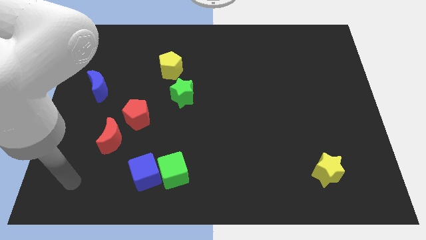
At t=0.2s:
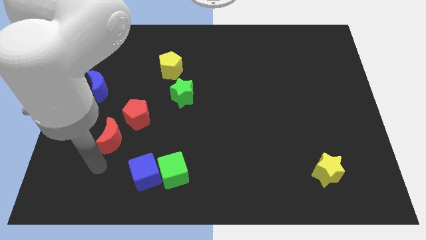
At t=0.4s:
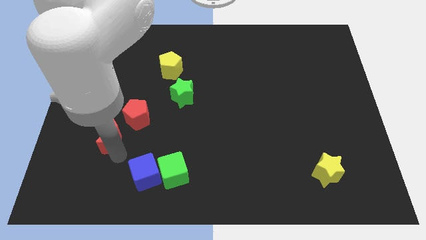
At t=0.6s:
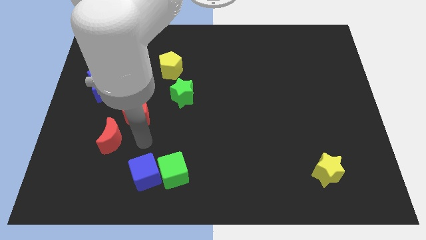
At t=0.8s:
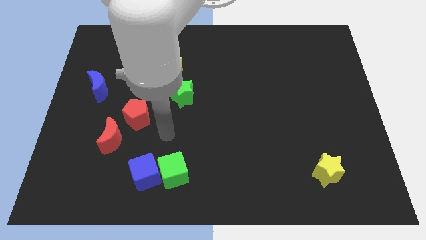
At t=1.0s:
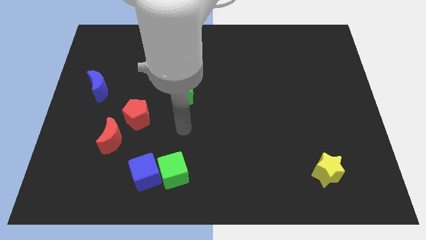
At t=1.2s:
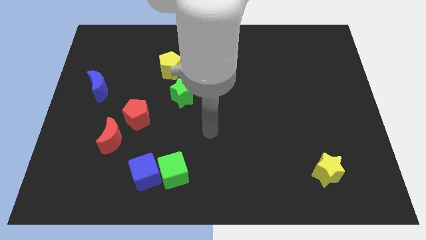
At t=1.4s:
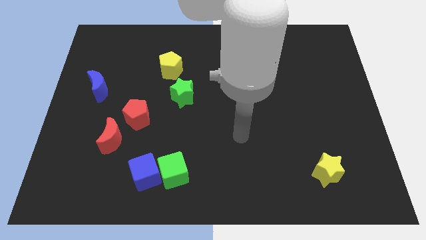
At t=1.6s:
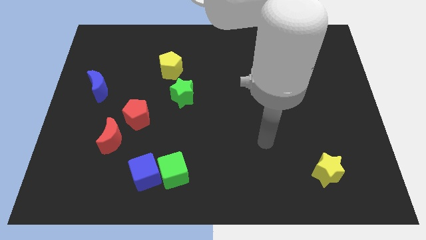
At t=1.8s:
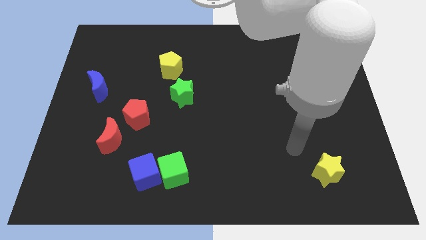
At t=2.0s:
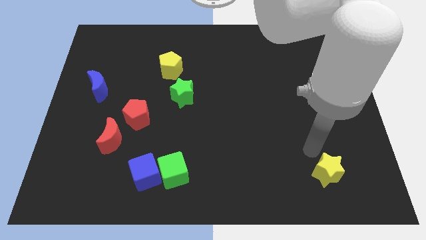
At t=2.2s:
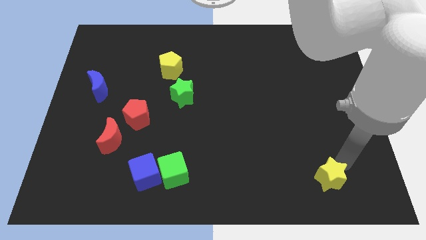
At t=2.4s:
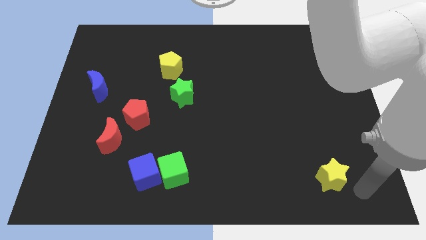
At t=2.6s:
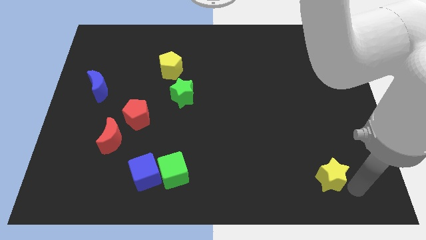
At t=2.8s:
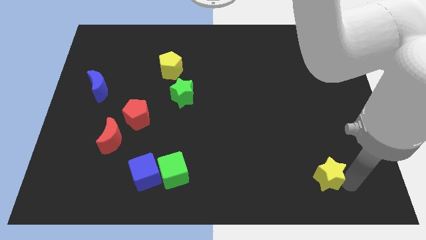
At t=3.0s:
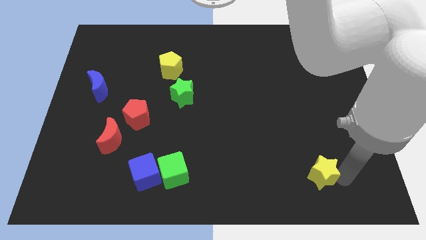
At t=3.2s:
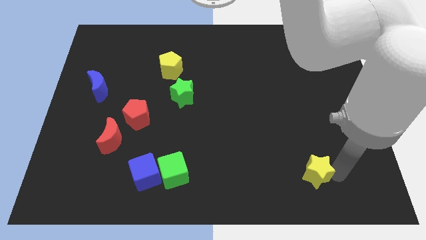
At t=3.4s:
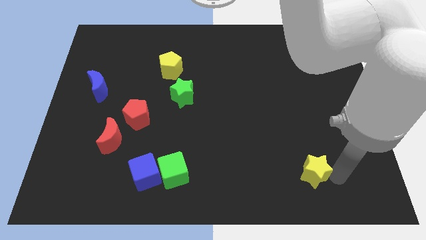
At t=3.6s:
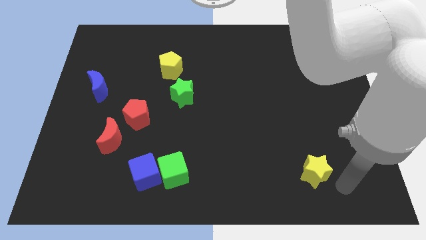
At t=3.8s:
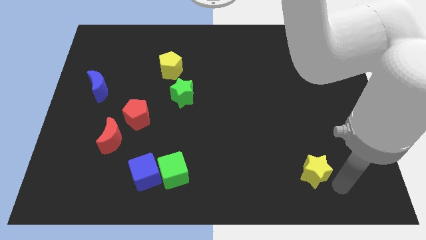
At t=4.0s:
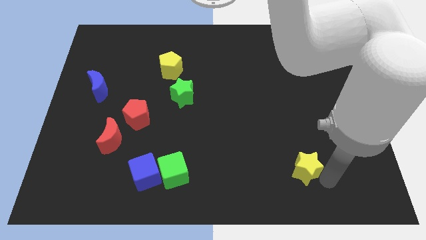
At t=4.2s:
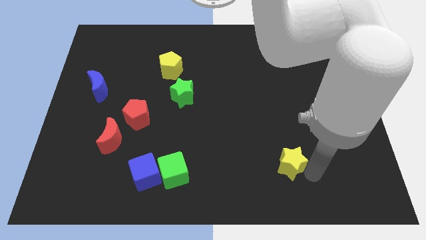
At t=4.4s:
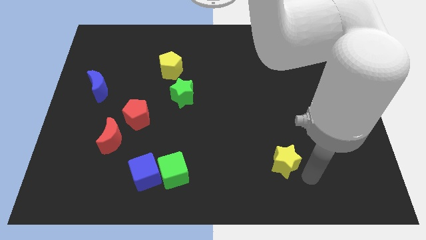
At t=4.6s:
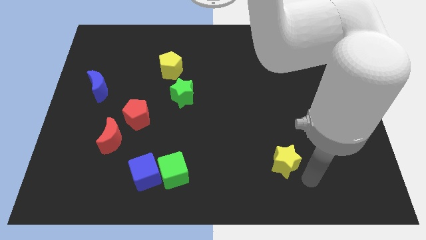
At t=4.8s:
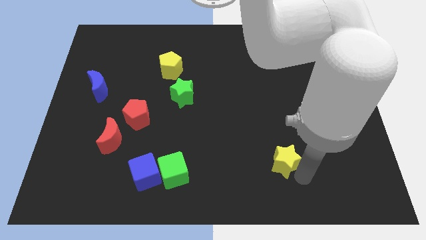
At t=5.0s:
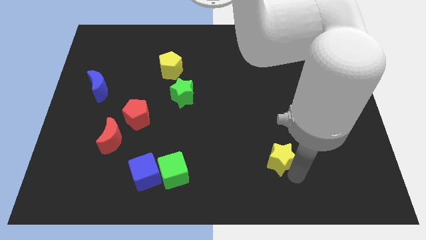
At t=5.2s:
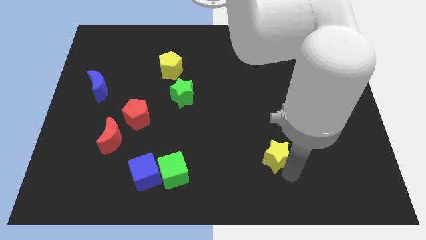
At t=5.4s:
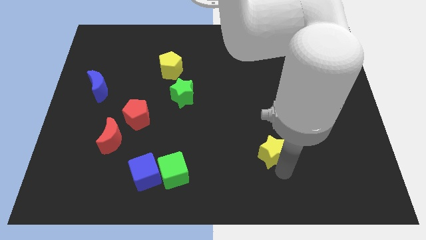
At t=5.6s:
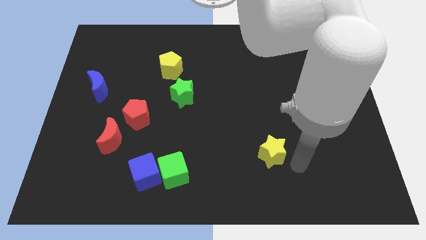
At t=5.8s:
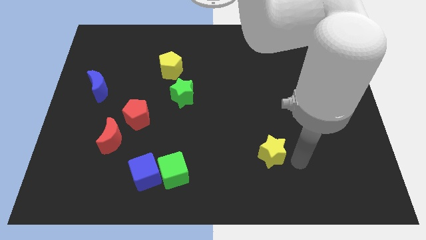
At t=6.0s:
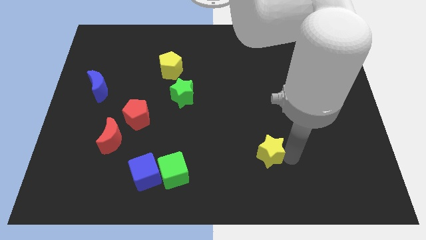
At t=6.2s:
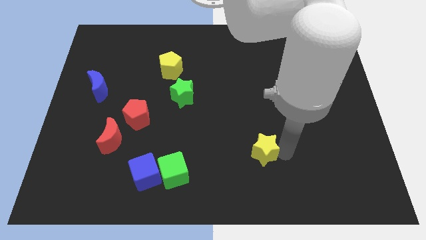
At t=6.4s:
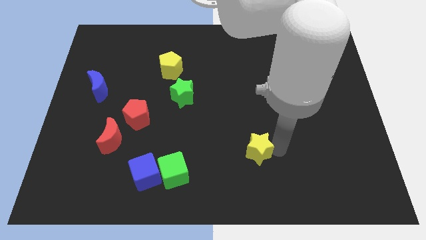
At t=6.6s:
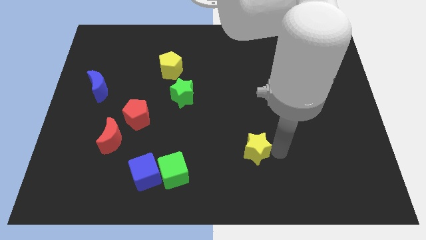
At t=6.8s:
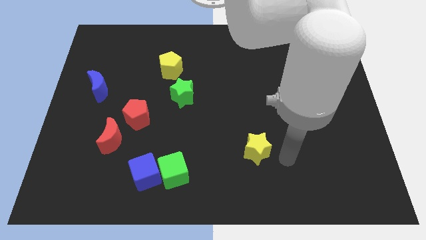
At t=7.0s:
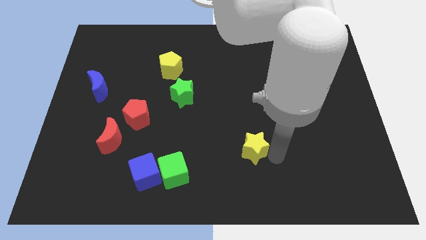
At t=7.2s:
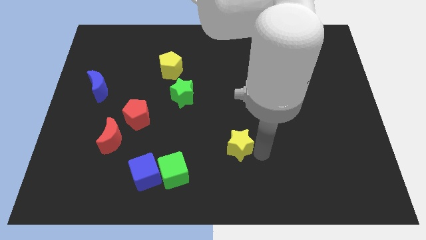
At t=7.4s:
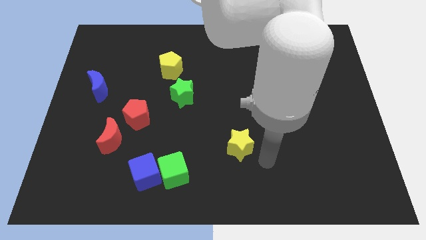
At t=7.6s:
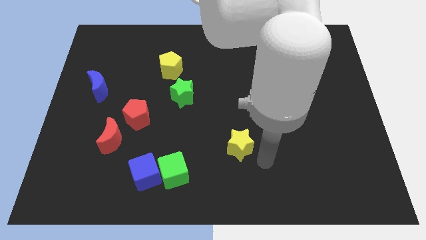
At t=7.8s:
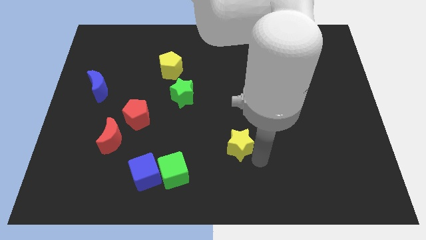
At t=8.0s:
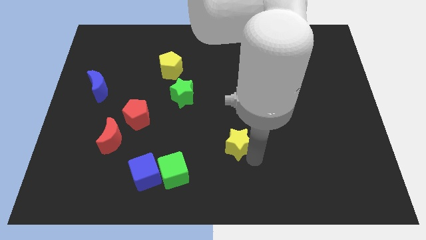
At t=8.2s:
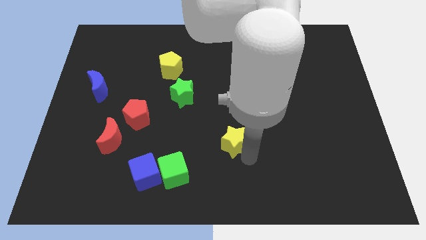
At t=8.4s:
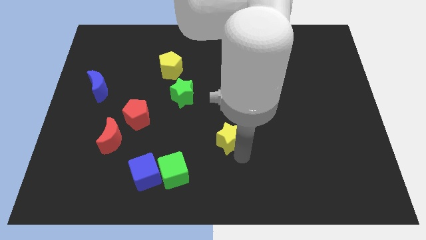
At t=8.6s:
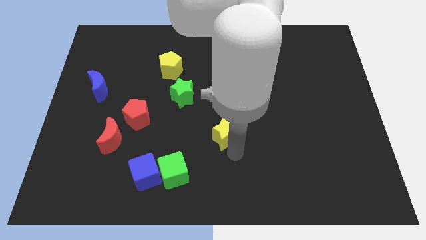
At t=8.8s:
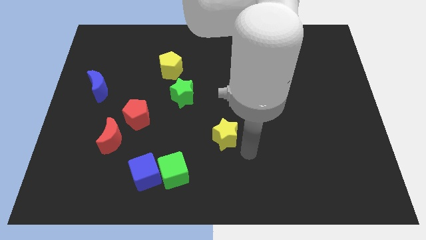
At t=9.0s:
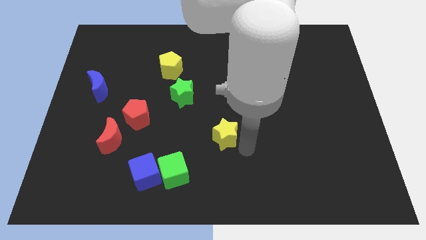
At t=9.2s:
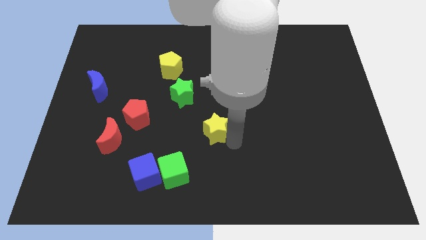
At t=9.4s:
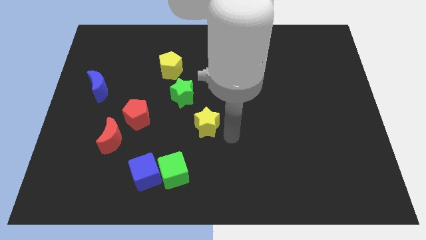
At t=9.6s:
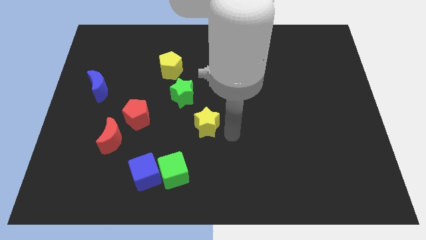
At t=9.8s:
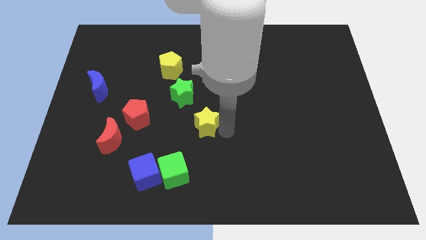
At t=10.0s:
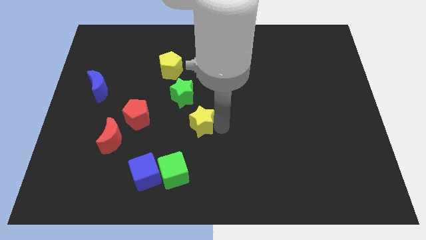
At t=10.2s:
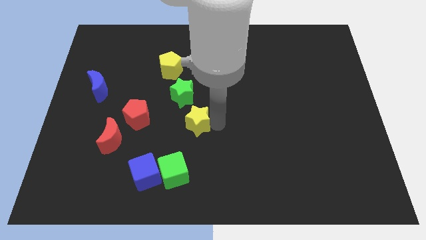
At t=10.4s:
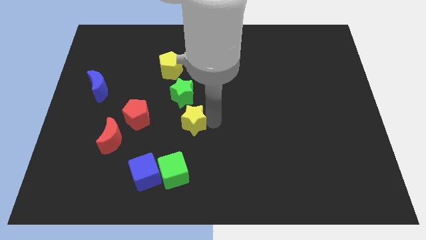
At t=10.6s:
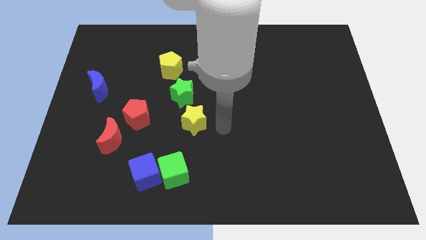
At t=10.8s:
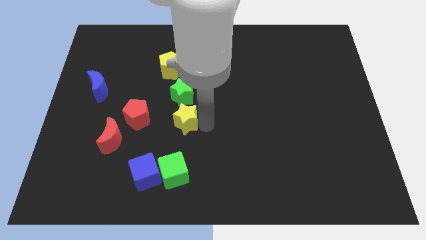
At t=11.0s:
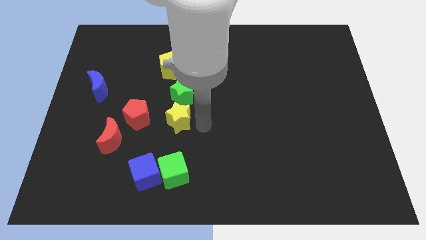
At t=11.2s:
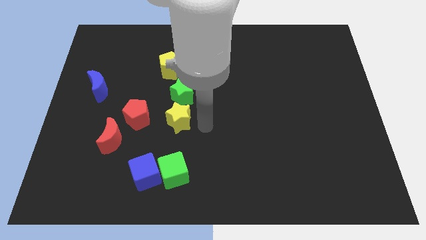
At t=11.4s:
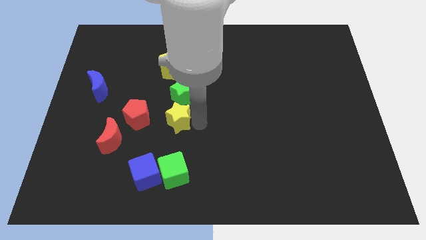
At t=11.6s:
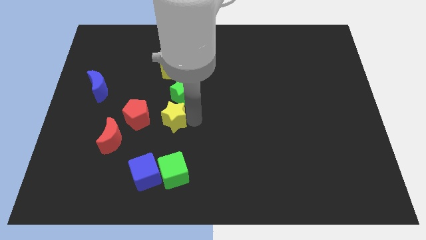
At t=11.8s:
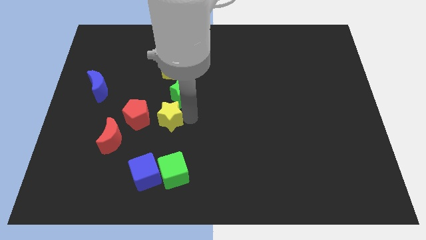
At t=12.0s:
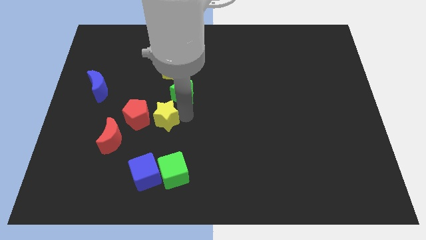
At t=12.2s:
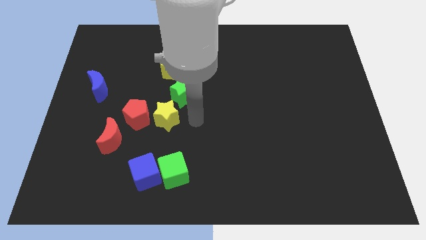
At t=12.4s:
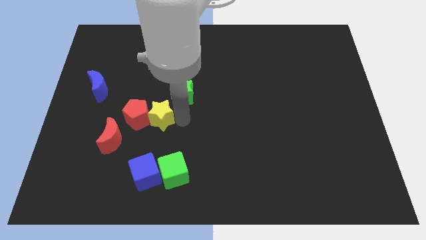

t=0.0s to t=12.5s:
put the yellow star close to the red pentagon
